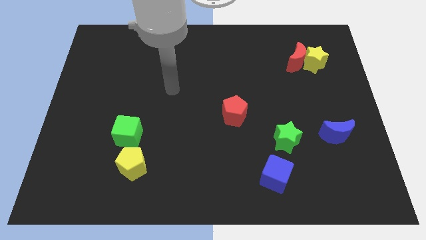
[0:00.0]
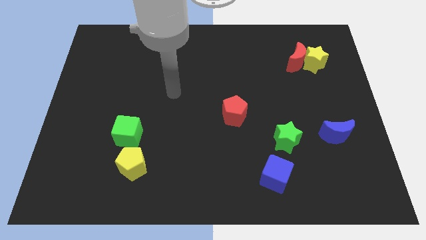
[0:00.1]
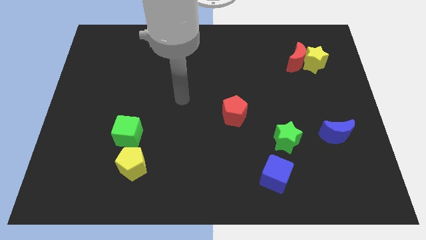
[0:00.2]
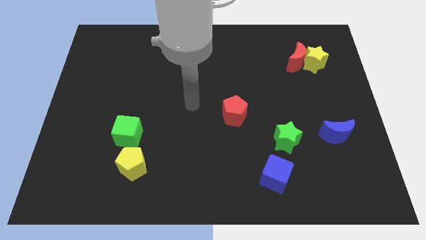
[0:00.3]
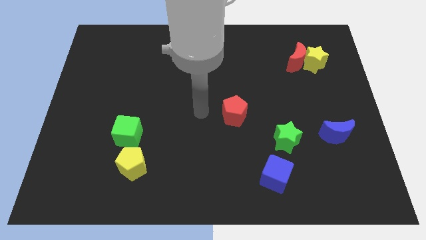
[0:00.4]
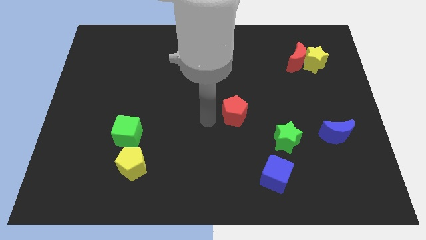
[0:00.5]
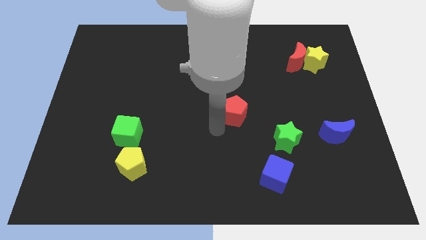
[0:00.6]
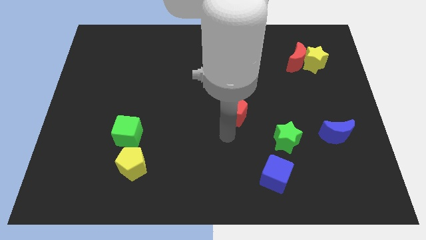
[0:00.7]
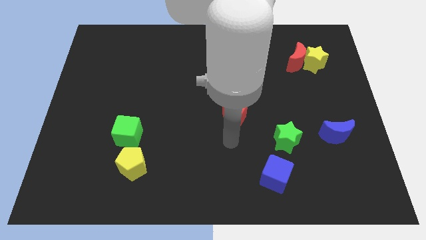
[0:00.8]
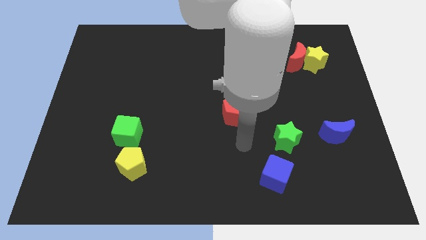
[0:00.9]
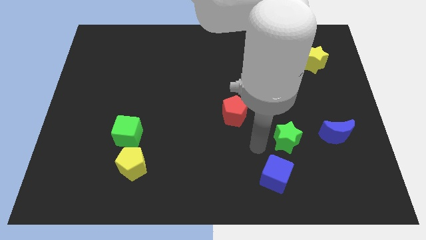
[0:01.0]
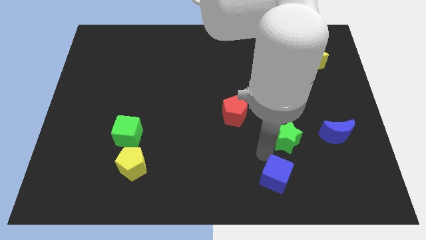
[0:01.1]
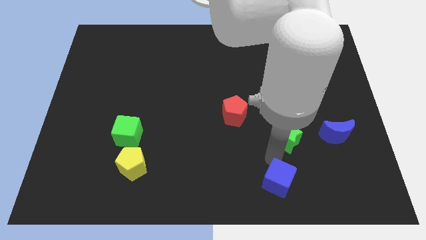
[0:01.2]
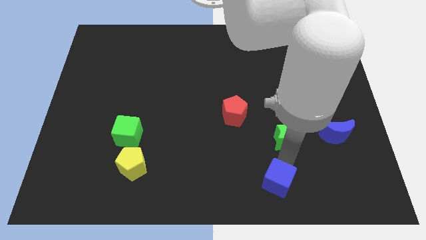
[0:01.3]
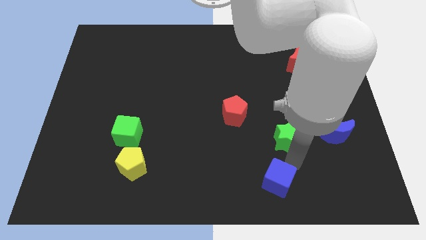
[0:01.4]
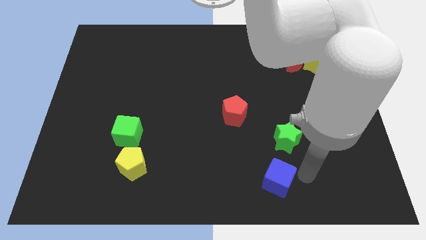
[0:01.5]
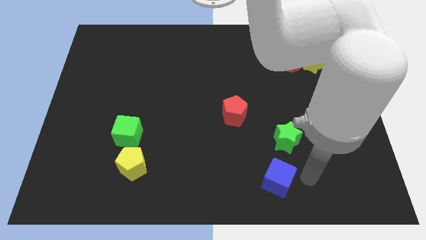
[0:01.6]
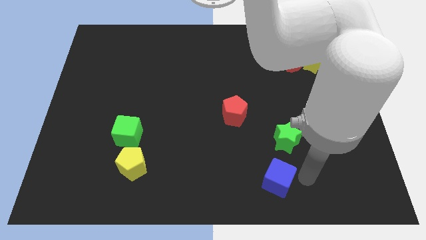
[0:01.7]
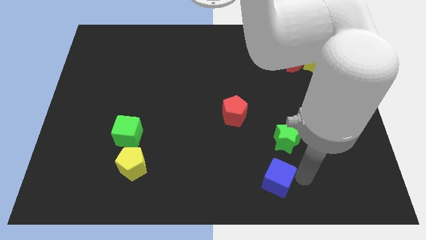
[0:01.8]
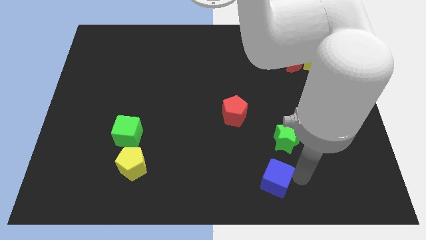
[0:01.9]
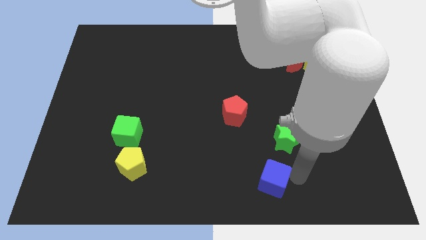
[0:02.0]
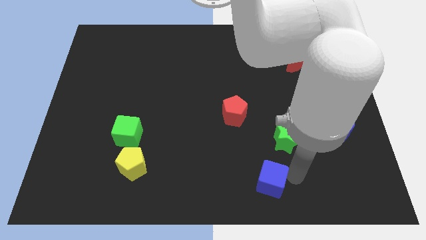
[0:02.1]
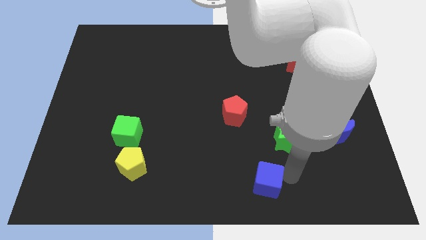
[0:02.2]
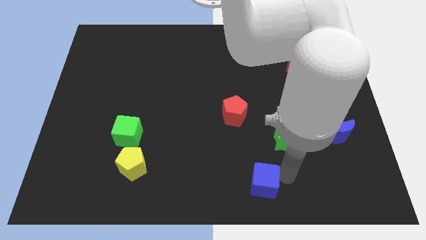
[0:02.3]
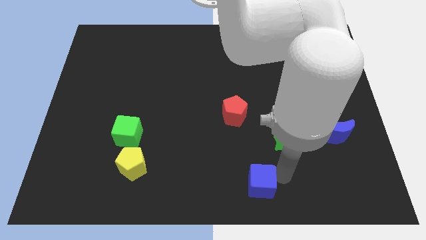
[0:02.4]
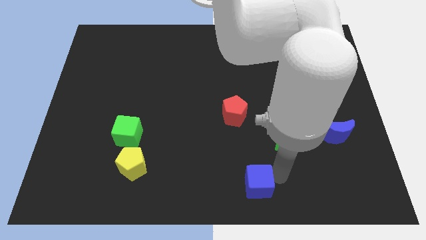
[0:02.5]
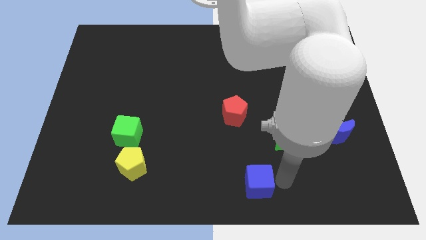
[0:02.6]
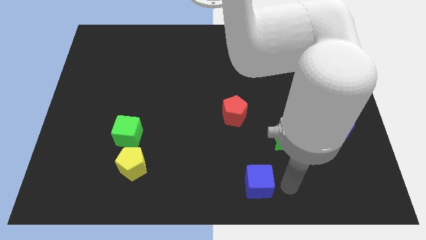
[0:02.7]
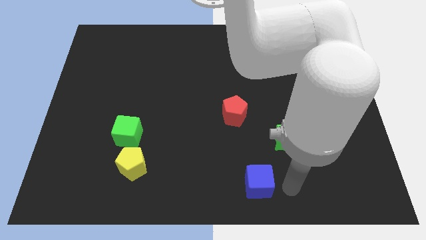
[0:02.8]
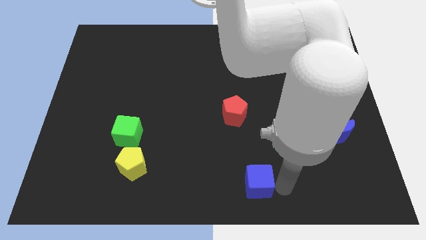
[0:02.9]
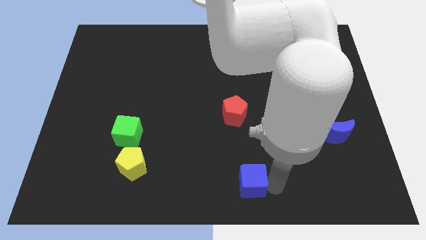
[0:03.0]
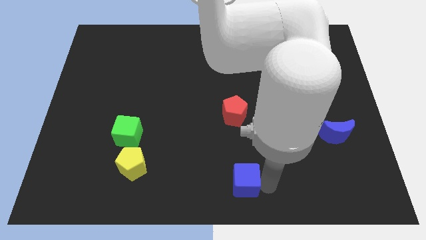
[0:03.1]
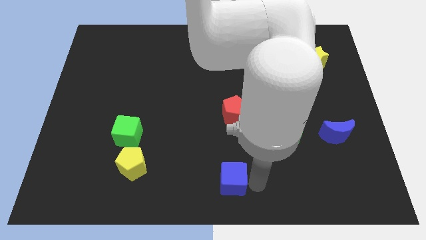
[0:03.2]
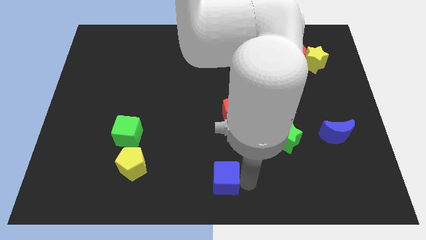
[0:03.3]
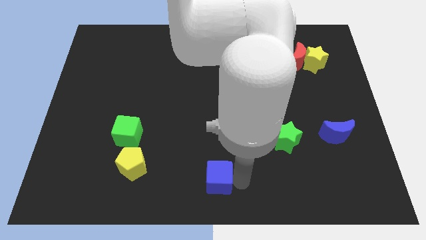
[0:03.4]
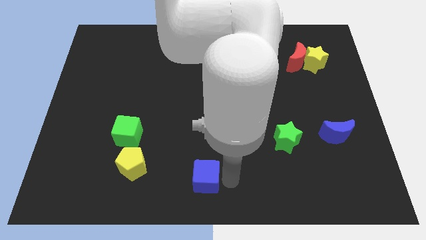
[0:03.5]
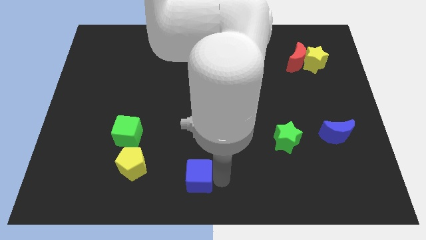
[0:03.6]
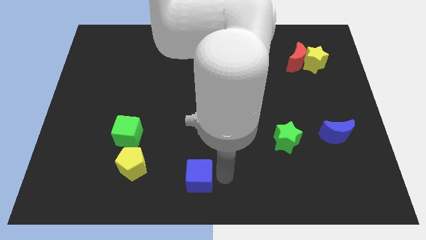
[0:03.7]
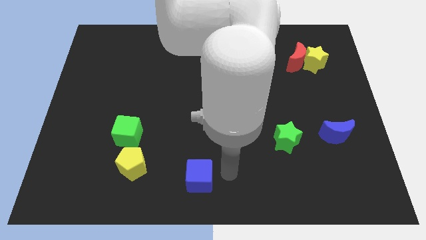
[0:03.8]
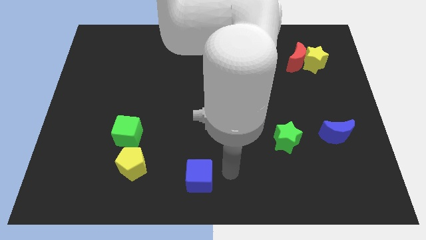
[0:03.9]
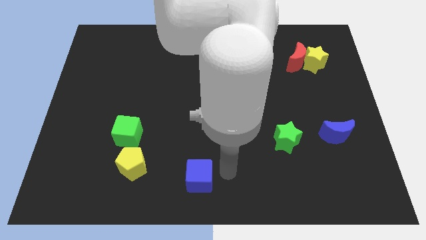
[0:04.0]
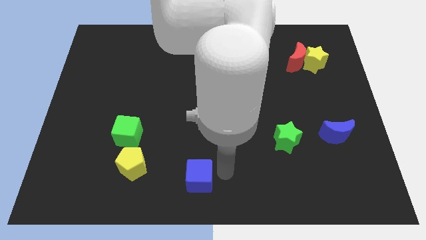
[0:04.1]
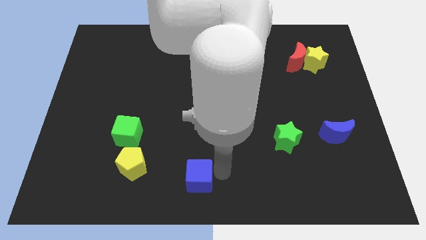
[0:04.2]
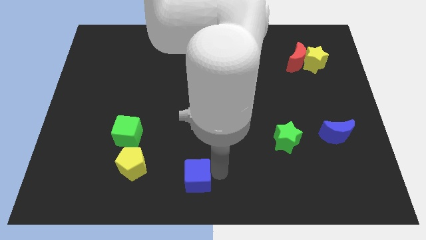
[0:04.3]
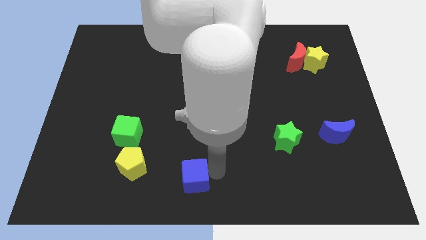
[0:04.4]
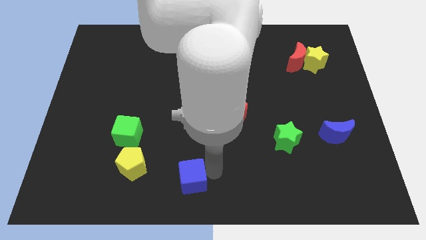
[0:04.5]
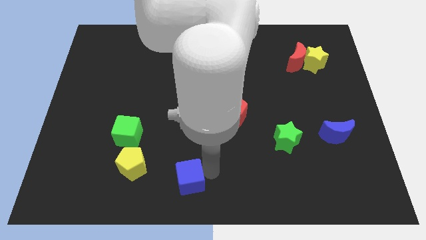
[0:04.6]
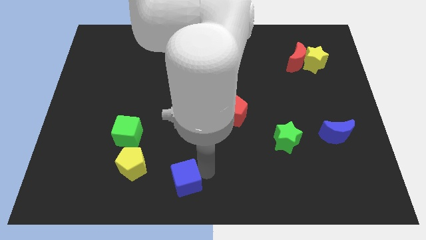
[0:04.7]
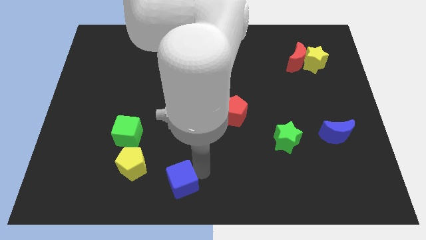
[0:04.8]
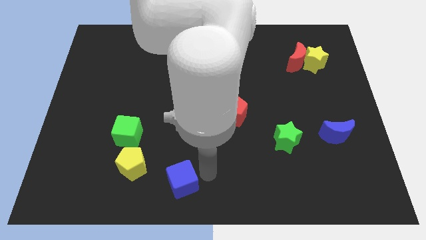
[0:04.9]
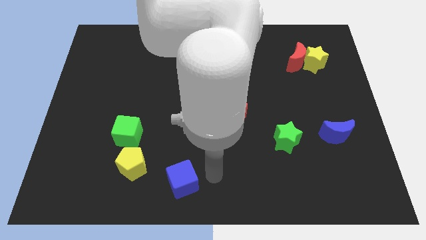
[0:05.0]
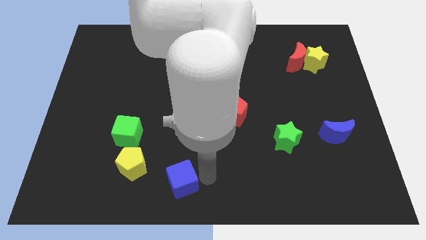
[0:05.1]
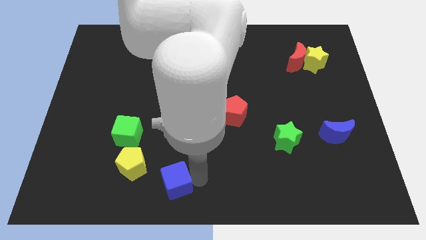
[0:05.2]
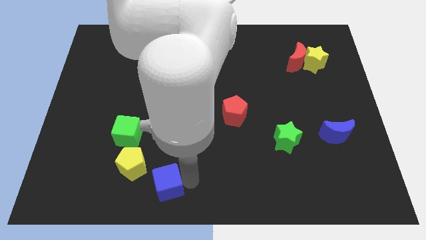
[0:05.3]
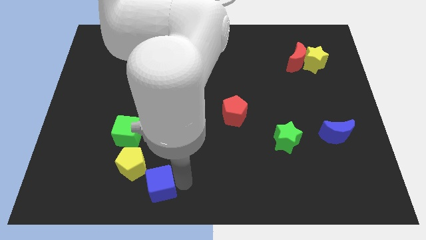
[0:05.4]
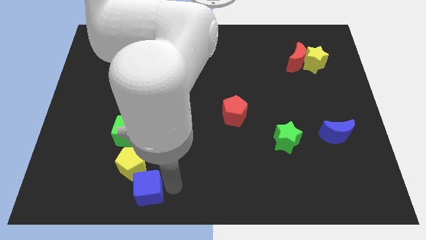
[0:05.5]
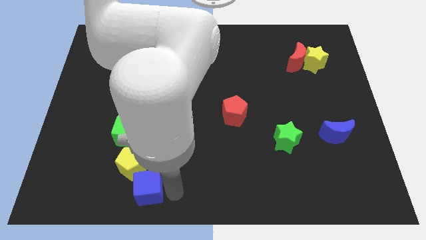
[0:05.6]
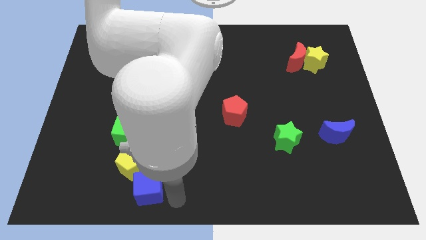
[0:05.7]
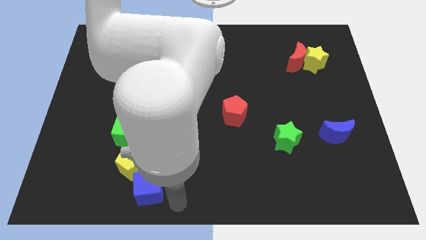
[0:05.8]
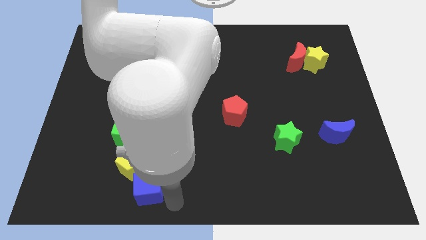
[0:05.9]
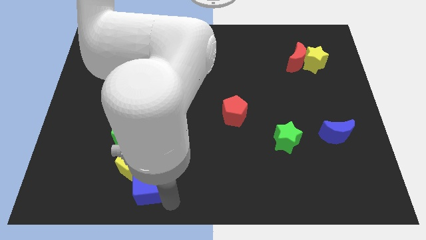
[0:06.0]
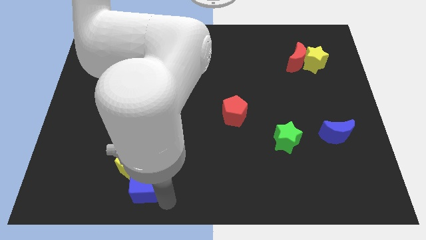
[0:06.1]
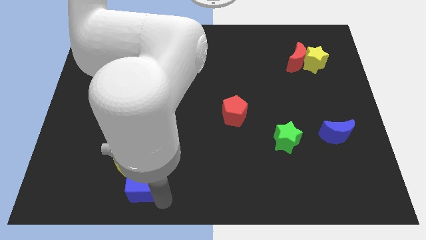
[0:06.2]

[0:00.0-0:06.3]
move the blue cube below the green cube
